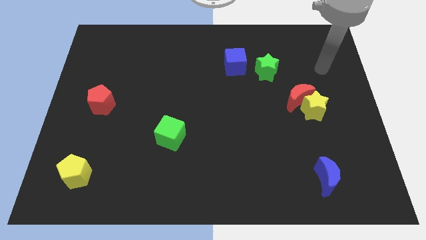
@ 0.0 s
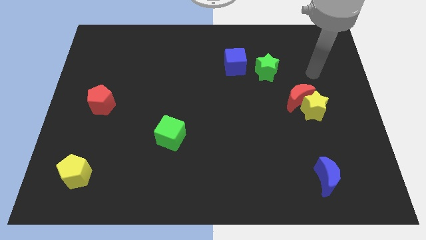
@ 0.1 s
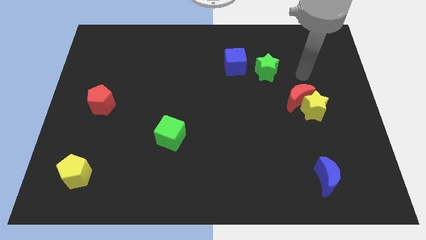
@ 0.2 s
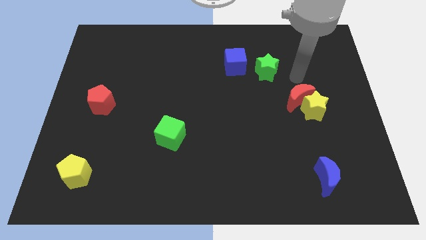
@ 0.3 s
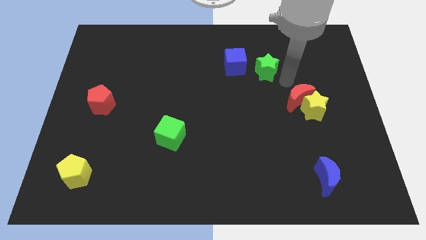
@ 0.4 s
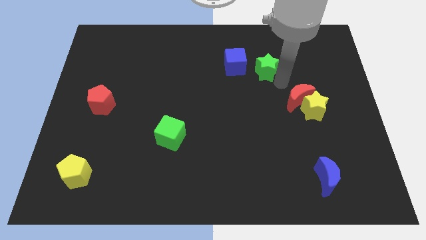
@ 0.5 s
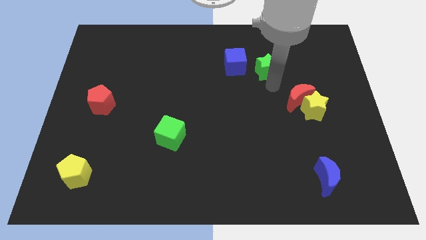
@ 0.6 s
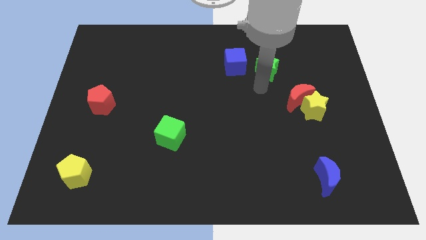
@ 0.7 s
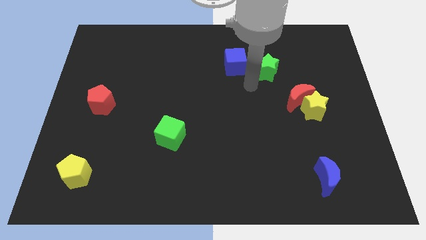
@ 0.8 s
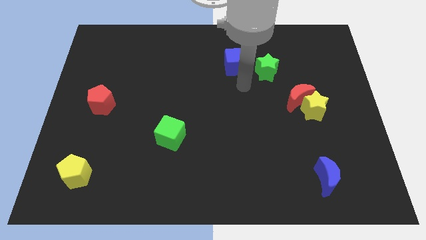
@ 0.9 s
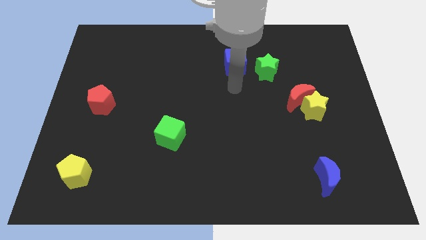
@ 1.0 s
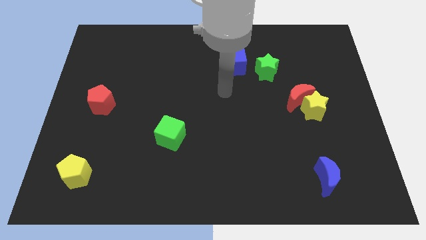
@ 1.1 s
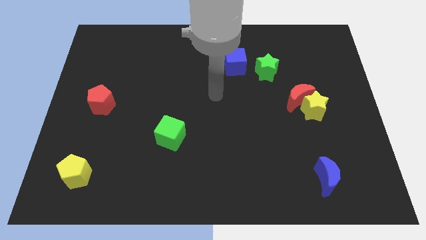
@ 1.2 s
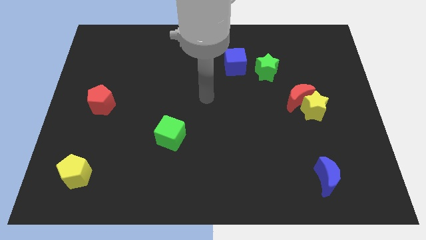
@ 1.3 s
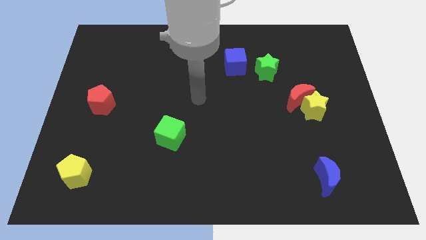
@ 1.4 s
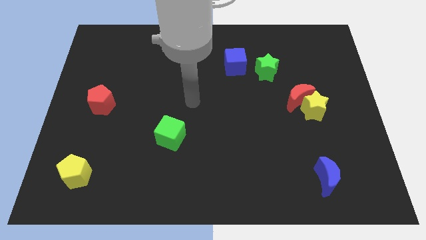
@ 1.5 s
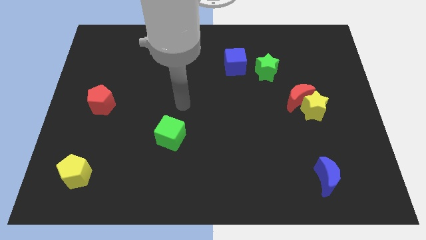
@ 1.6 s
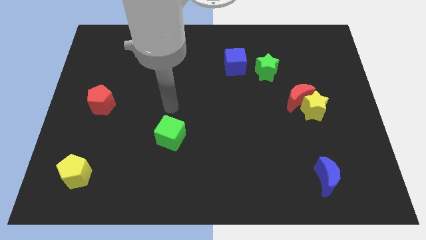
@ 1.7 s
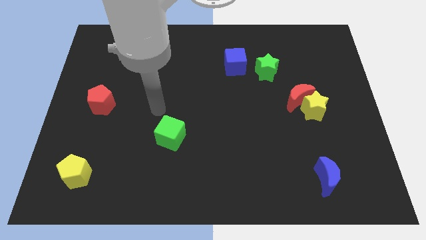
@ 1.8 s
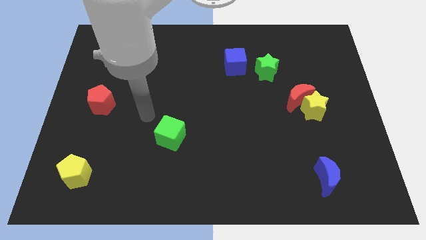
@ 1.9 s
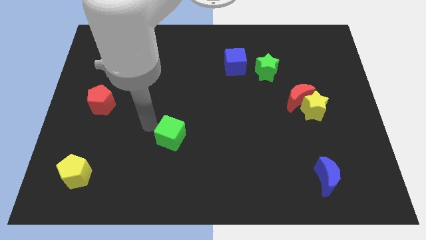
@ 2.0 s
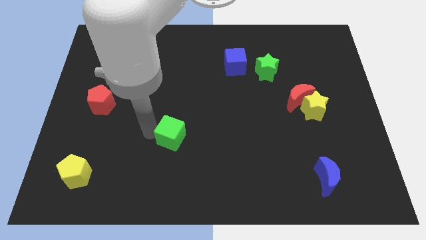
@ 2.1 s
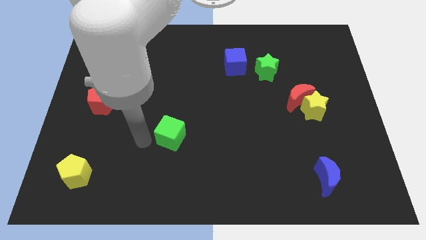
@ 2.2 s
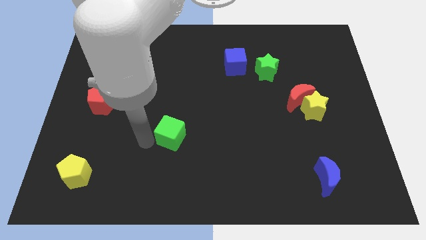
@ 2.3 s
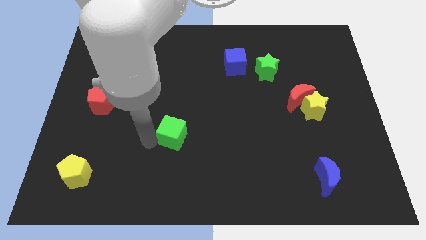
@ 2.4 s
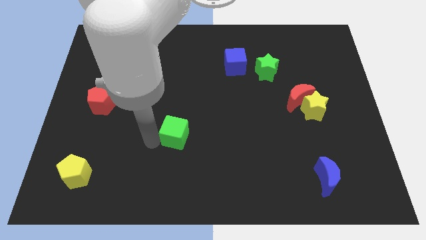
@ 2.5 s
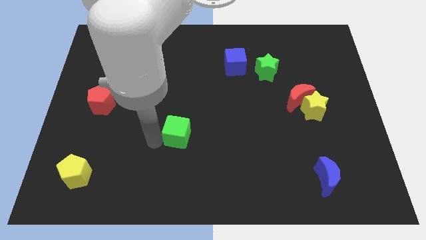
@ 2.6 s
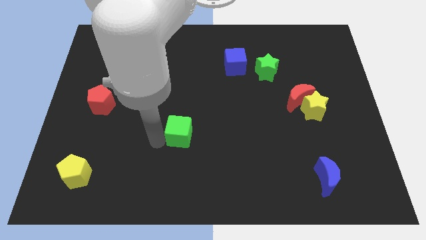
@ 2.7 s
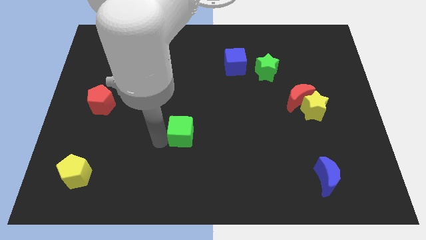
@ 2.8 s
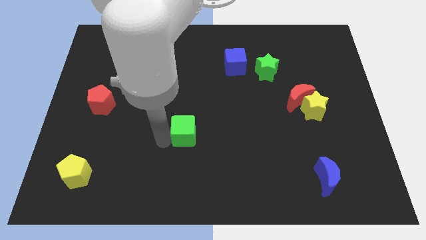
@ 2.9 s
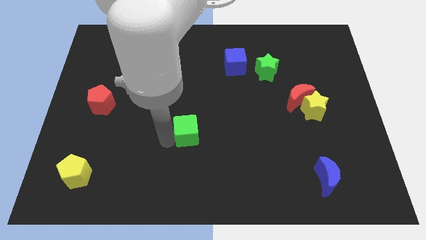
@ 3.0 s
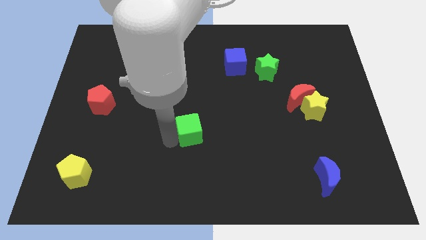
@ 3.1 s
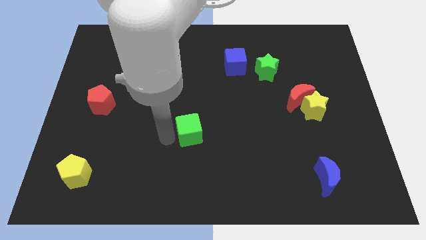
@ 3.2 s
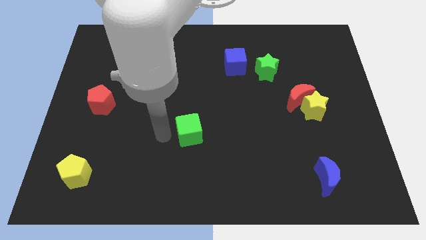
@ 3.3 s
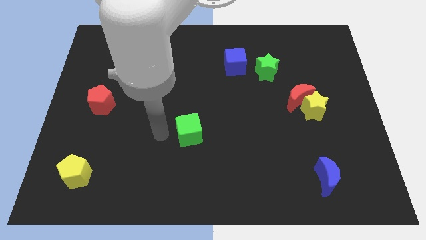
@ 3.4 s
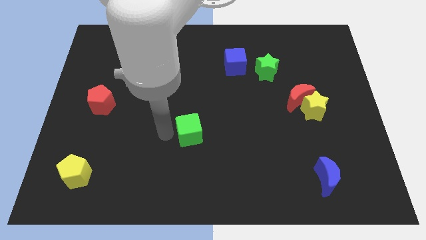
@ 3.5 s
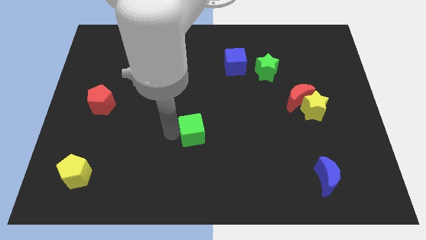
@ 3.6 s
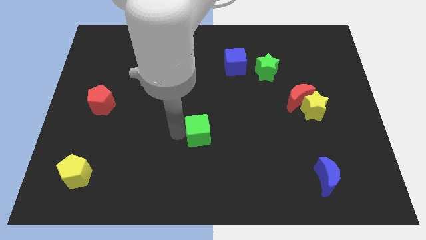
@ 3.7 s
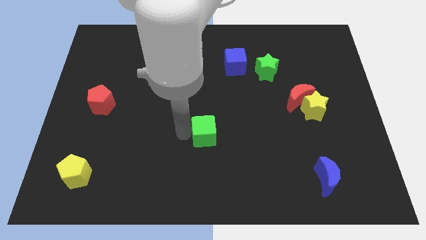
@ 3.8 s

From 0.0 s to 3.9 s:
slide the green cube right slightly

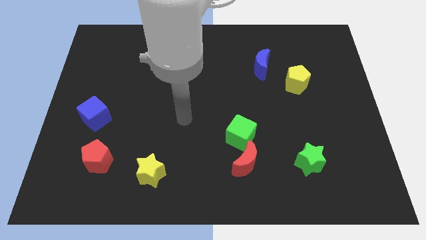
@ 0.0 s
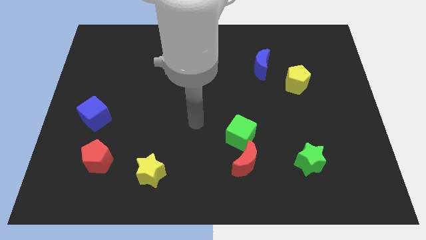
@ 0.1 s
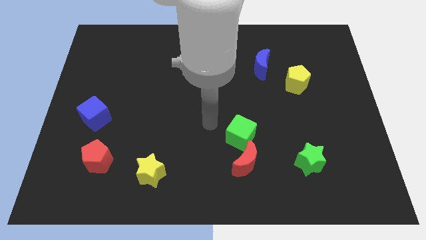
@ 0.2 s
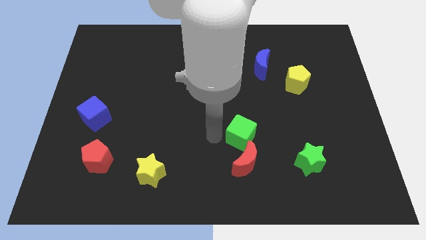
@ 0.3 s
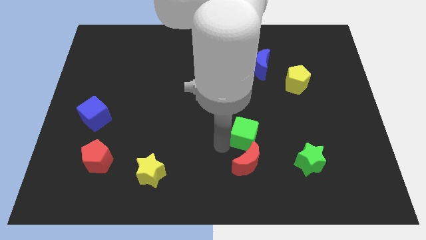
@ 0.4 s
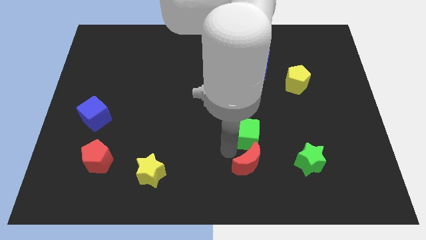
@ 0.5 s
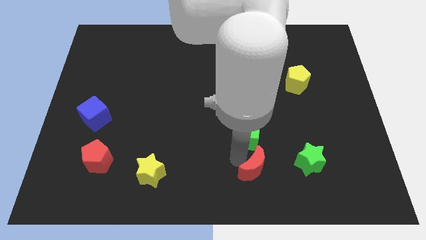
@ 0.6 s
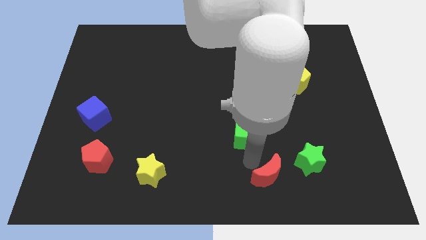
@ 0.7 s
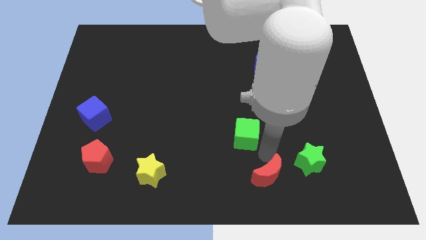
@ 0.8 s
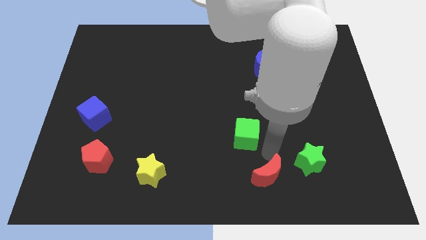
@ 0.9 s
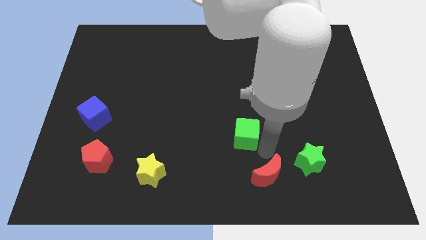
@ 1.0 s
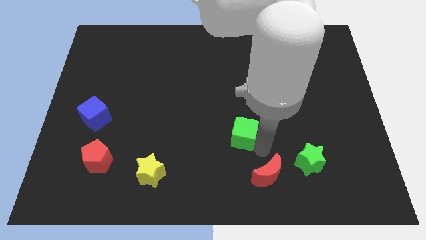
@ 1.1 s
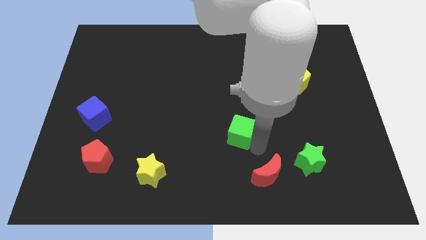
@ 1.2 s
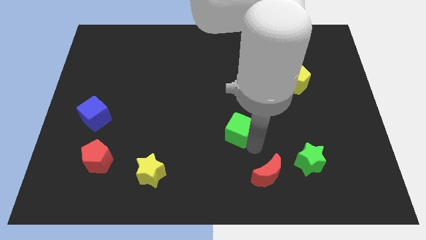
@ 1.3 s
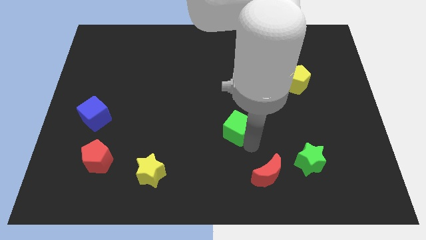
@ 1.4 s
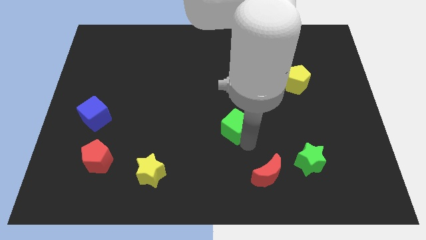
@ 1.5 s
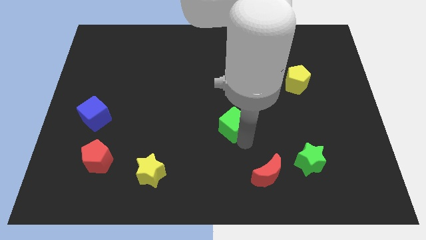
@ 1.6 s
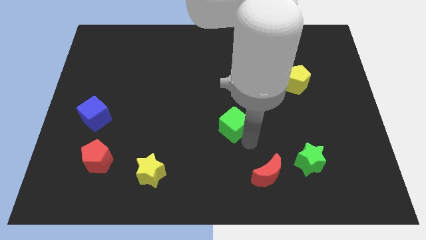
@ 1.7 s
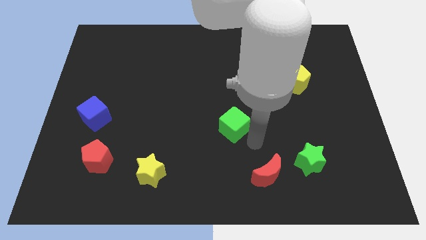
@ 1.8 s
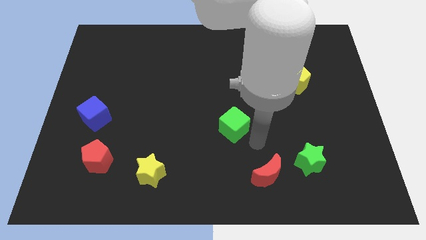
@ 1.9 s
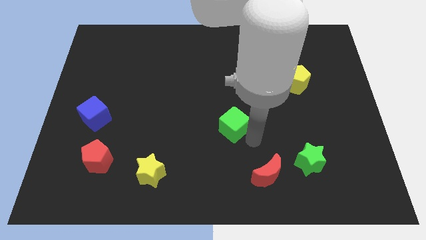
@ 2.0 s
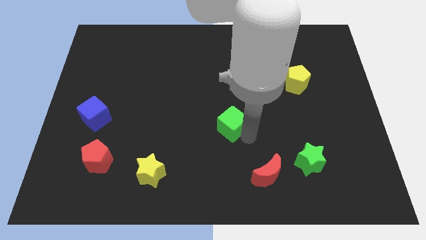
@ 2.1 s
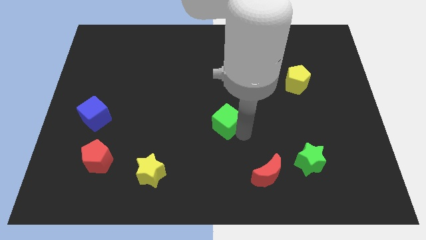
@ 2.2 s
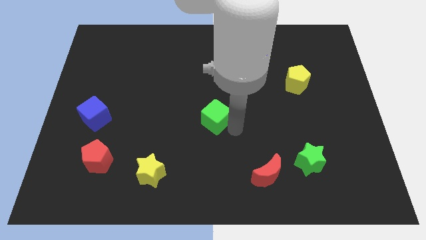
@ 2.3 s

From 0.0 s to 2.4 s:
slightly slide the green cube upwards and left

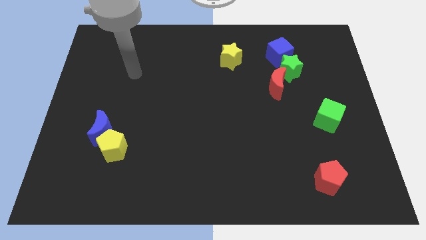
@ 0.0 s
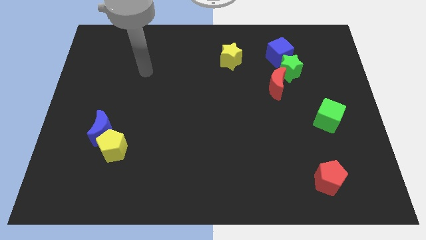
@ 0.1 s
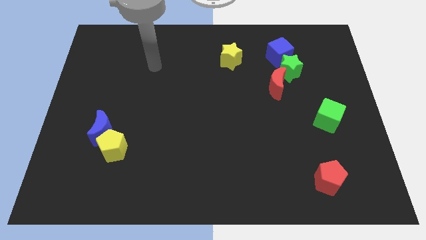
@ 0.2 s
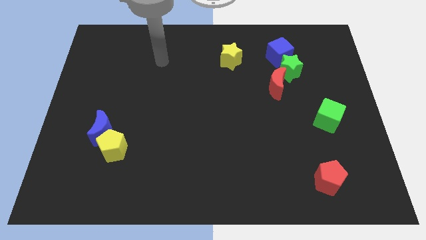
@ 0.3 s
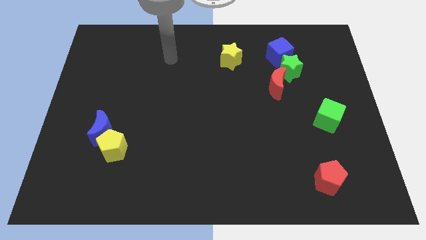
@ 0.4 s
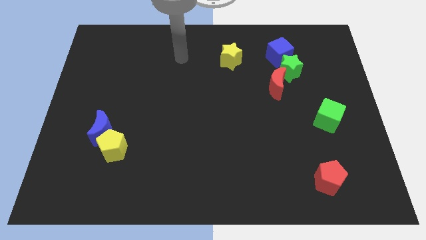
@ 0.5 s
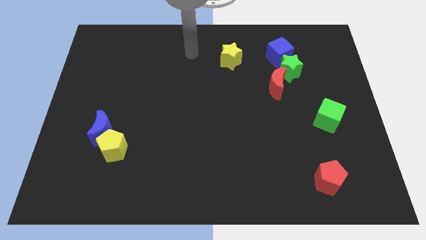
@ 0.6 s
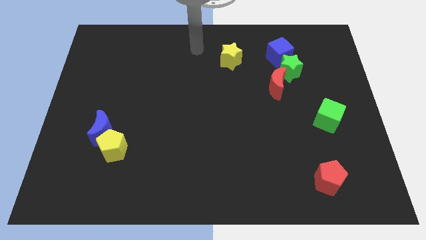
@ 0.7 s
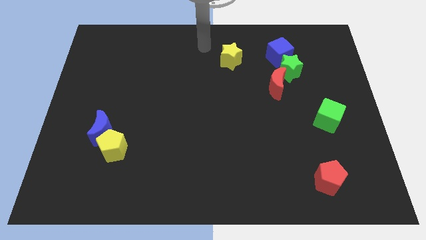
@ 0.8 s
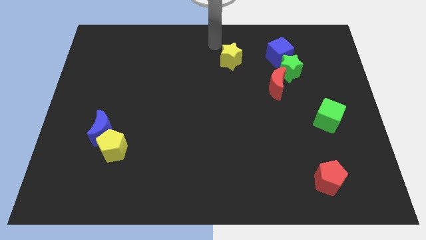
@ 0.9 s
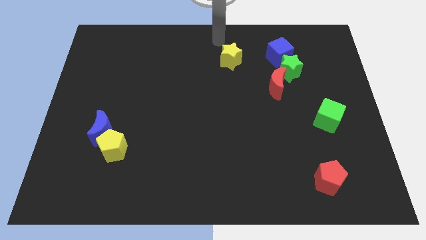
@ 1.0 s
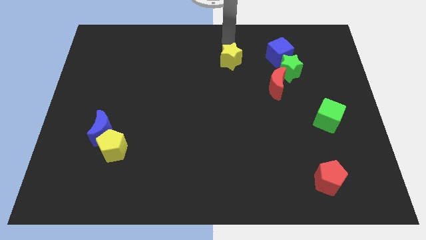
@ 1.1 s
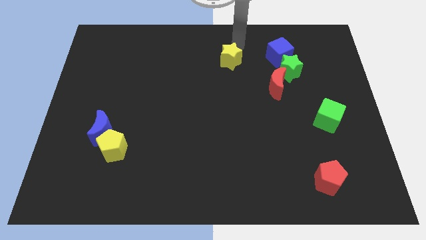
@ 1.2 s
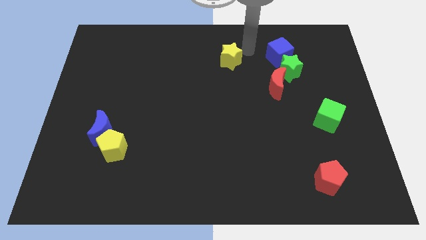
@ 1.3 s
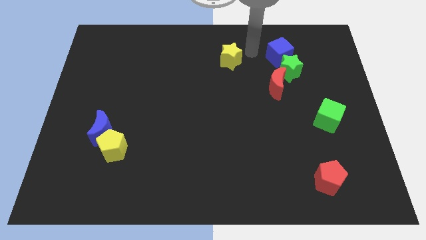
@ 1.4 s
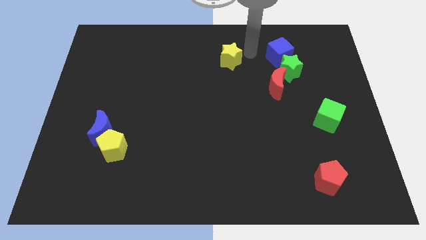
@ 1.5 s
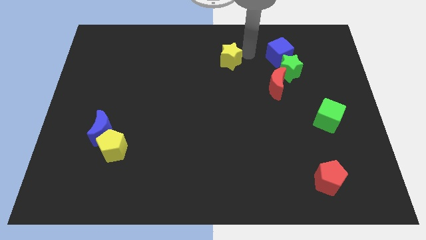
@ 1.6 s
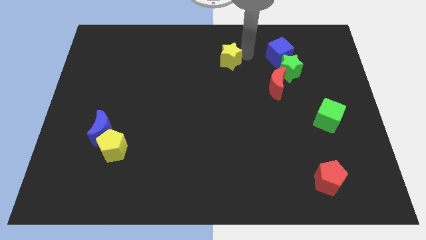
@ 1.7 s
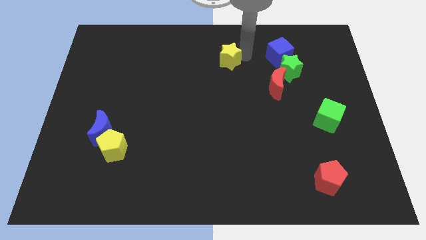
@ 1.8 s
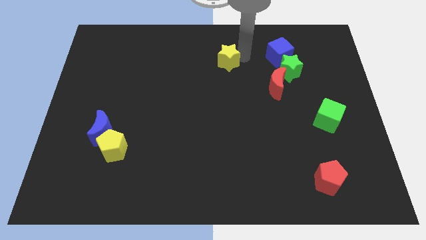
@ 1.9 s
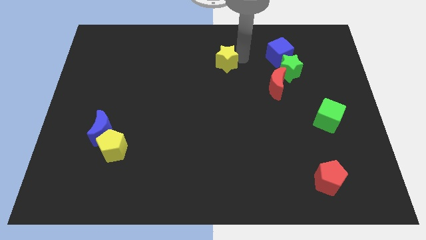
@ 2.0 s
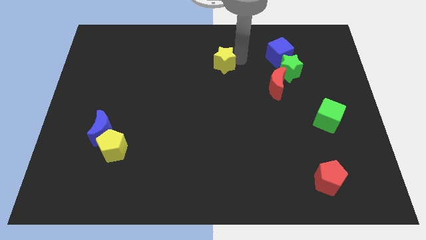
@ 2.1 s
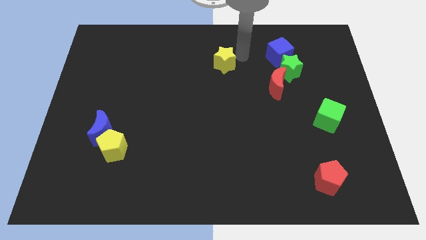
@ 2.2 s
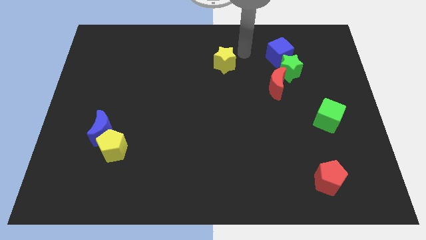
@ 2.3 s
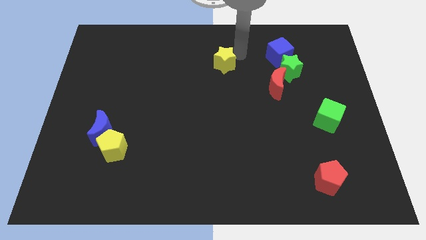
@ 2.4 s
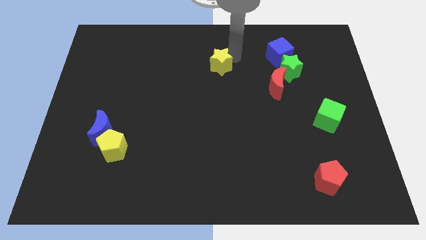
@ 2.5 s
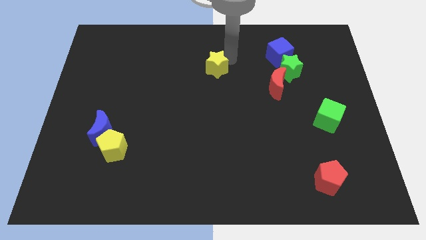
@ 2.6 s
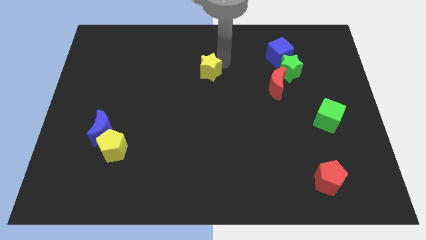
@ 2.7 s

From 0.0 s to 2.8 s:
move the yellow star diagonally down and left a little bit
